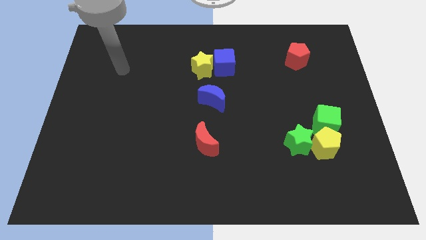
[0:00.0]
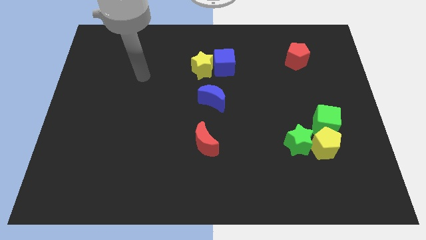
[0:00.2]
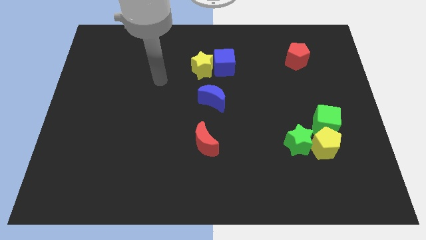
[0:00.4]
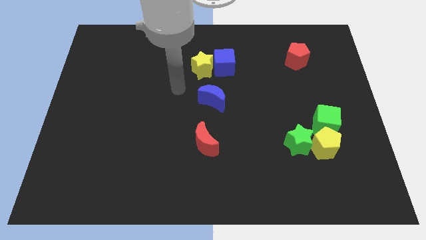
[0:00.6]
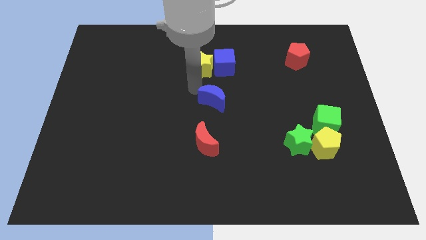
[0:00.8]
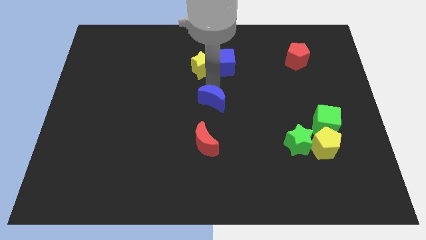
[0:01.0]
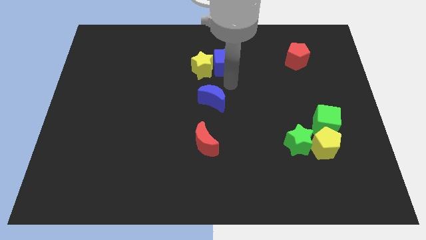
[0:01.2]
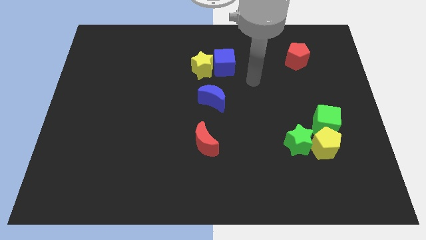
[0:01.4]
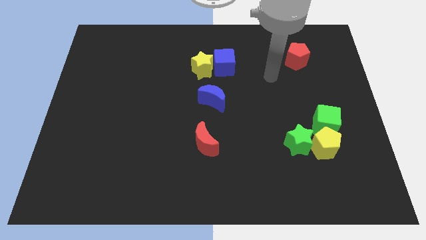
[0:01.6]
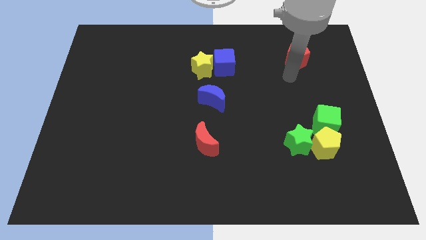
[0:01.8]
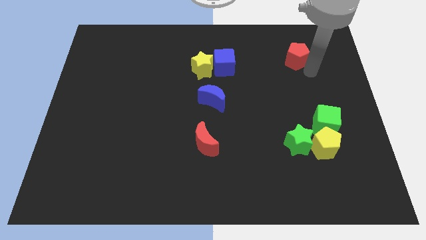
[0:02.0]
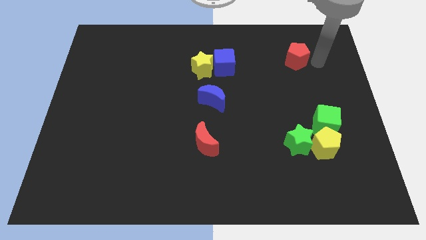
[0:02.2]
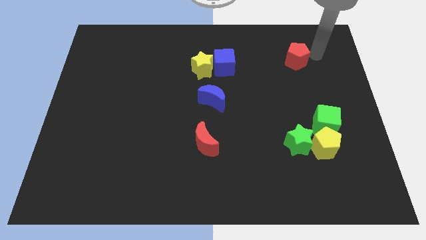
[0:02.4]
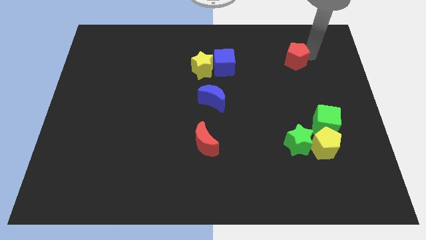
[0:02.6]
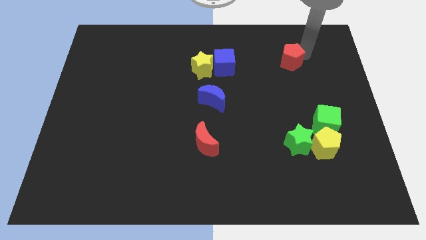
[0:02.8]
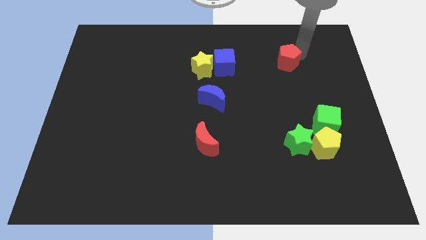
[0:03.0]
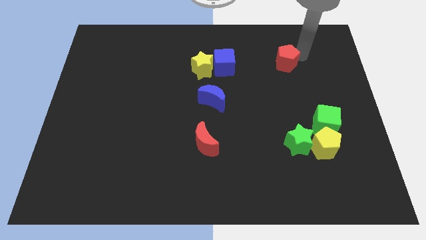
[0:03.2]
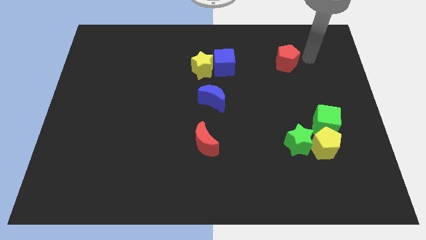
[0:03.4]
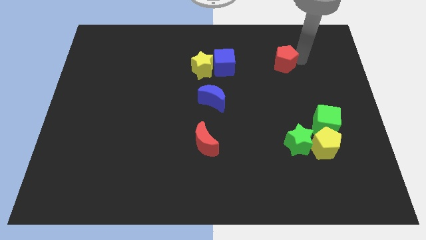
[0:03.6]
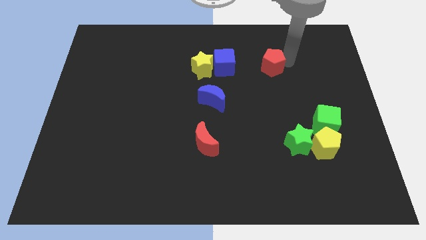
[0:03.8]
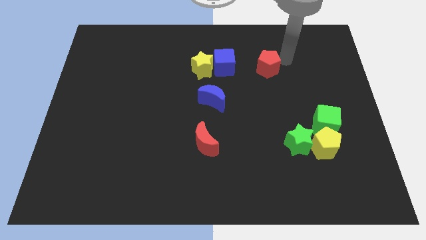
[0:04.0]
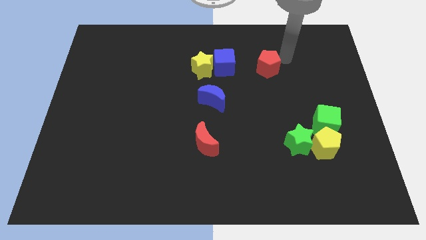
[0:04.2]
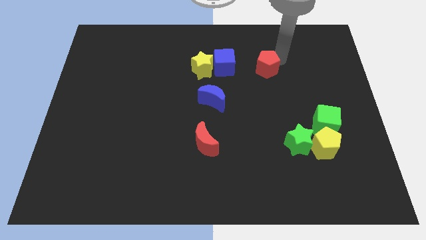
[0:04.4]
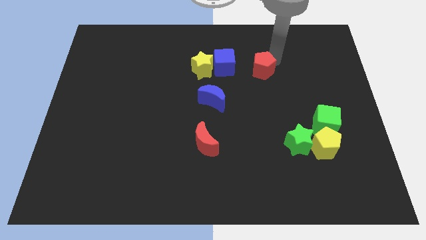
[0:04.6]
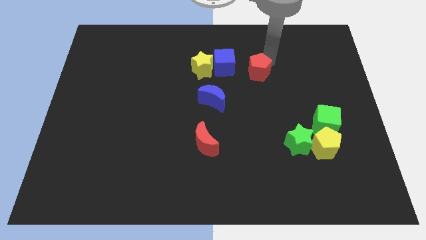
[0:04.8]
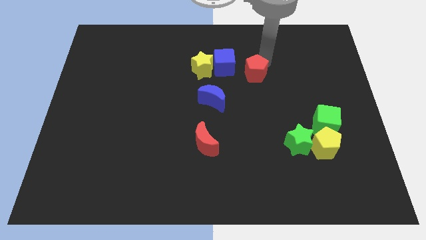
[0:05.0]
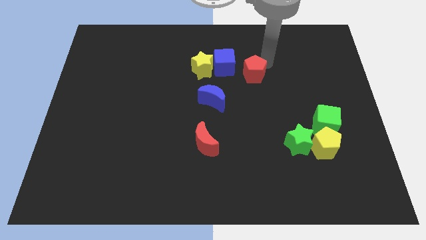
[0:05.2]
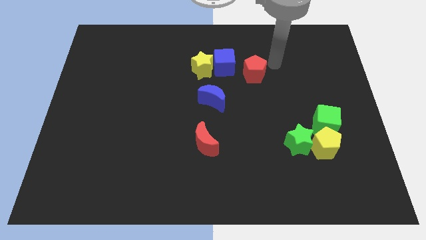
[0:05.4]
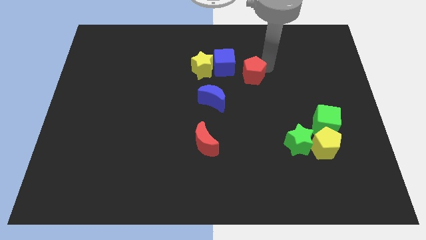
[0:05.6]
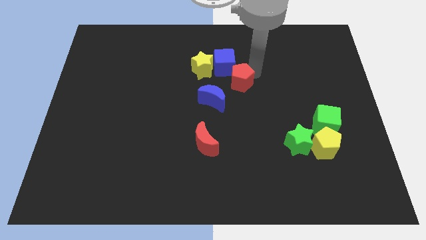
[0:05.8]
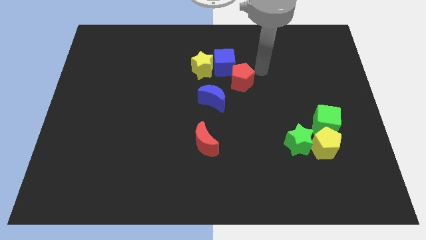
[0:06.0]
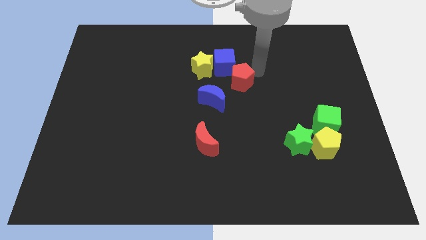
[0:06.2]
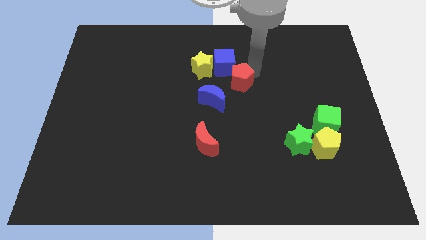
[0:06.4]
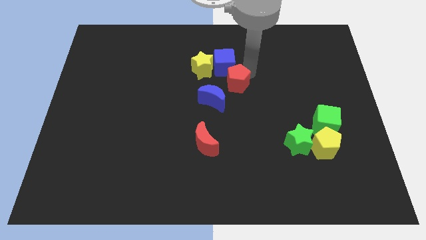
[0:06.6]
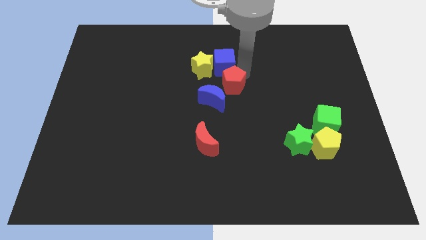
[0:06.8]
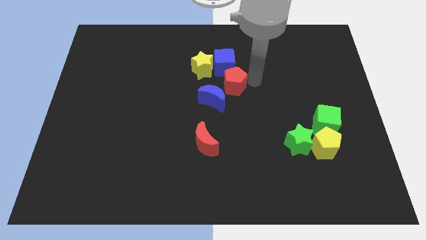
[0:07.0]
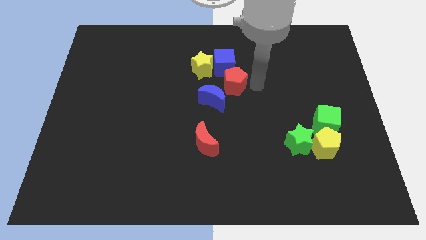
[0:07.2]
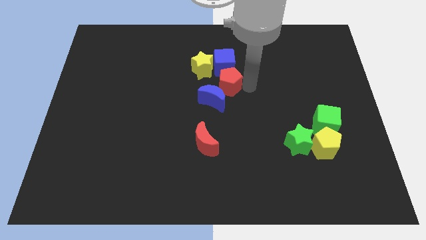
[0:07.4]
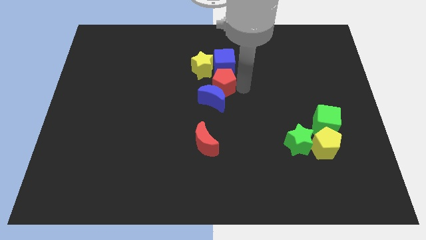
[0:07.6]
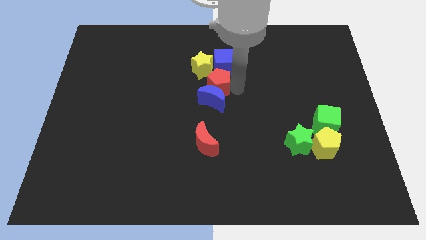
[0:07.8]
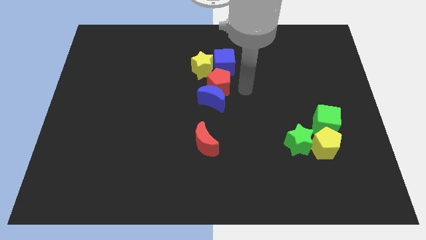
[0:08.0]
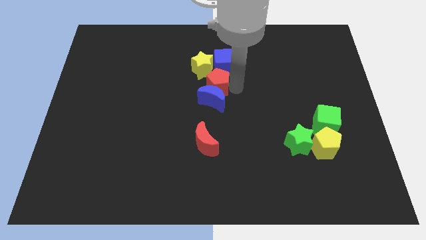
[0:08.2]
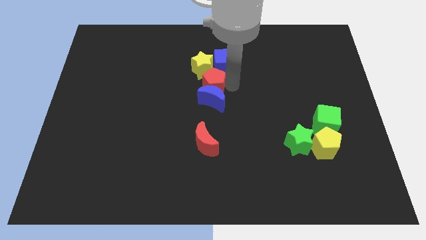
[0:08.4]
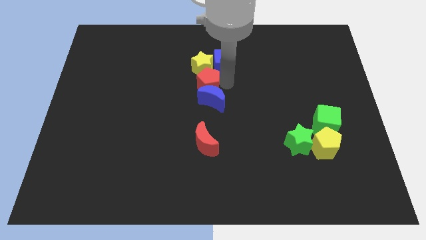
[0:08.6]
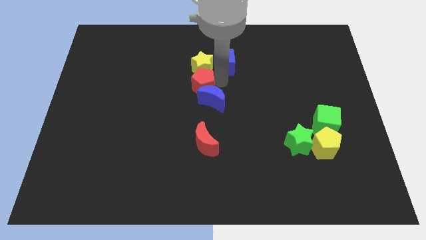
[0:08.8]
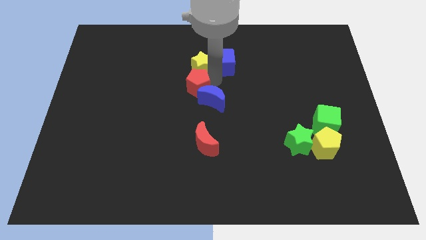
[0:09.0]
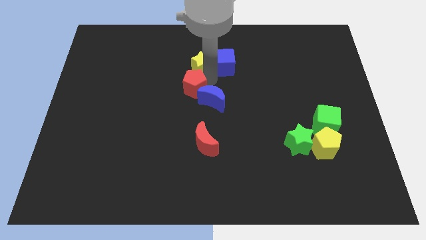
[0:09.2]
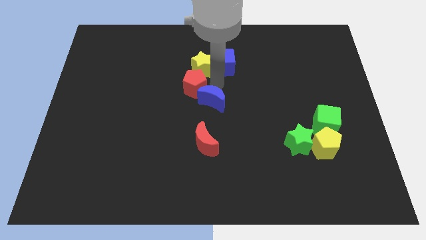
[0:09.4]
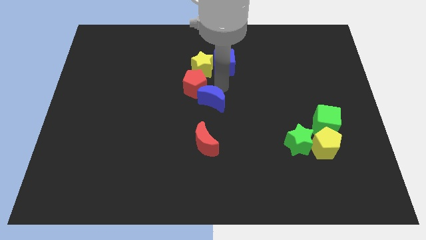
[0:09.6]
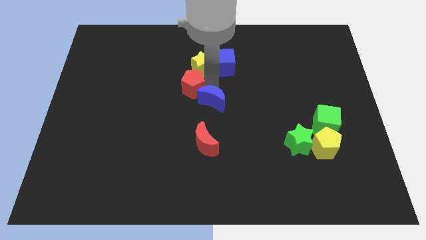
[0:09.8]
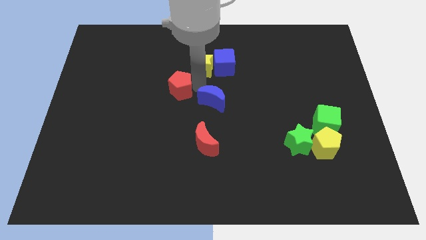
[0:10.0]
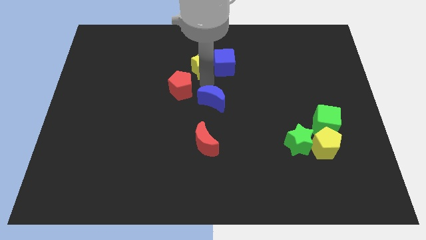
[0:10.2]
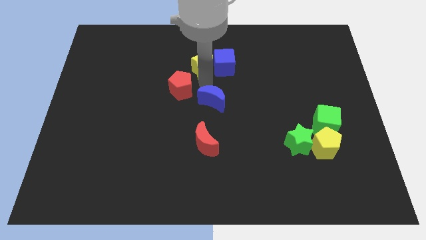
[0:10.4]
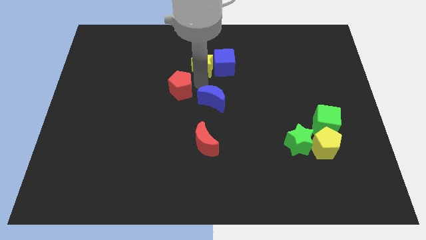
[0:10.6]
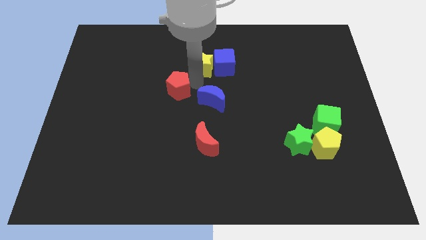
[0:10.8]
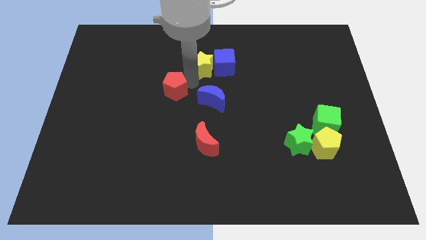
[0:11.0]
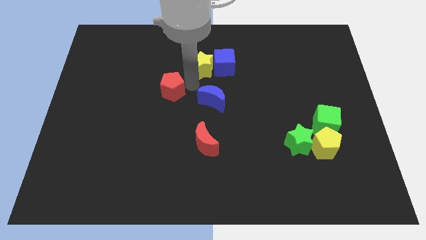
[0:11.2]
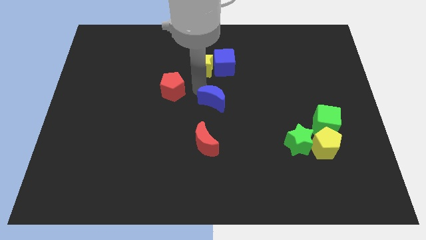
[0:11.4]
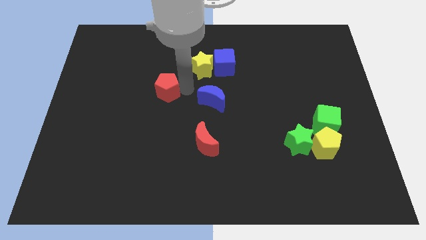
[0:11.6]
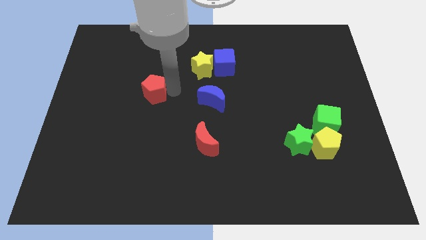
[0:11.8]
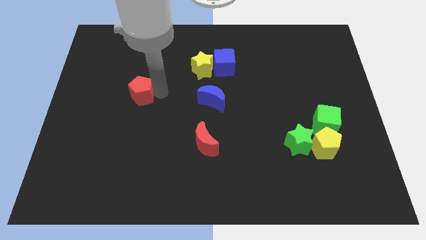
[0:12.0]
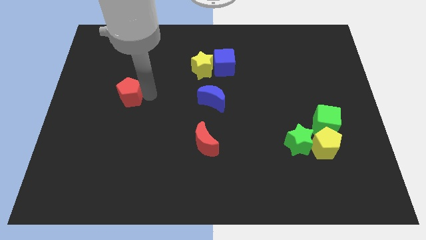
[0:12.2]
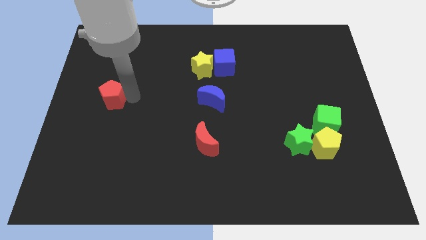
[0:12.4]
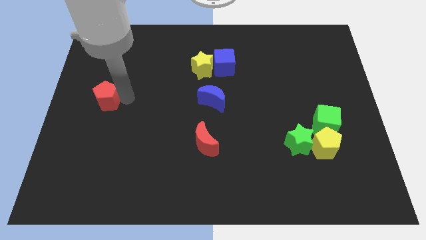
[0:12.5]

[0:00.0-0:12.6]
move the red pentagon to the left side

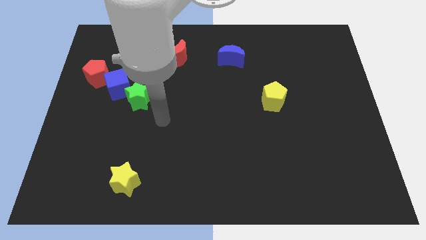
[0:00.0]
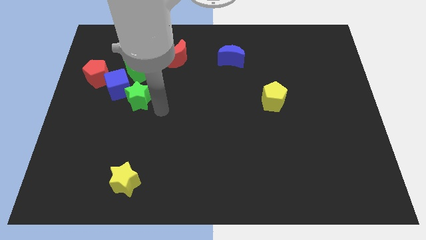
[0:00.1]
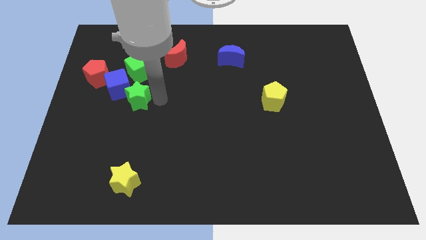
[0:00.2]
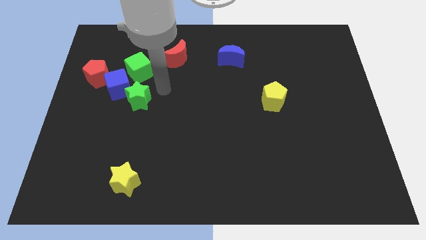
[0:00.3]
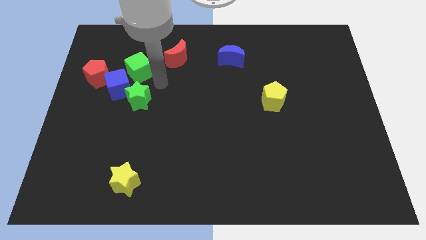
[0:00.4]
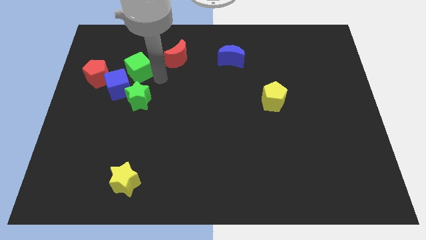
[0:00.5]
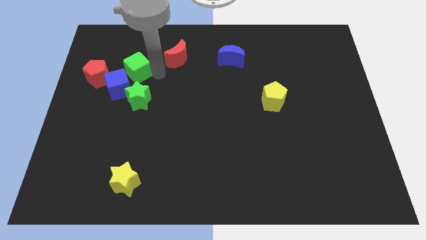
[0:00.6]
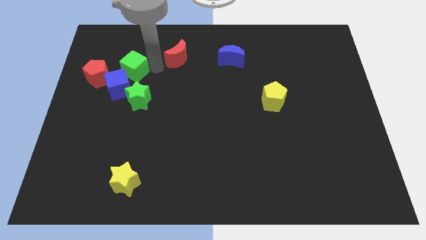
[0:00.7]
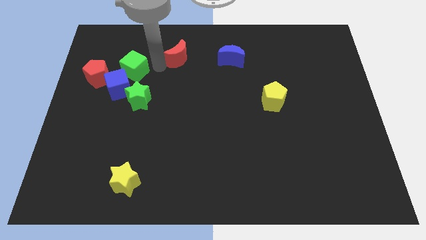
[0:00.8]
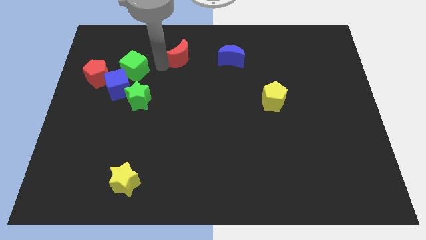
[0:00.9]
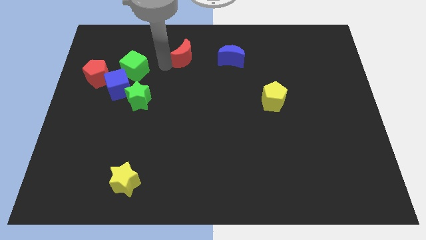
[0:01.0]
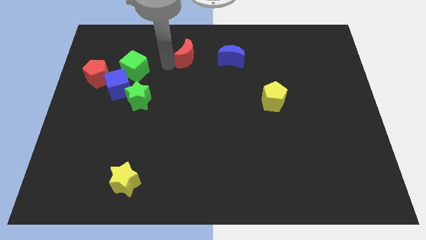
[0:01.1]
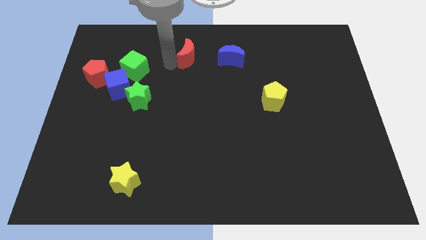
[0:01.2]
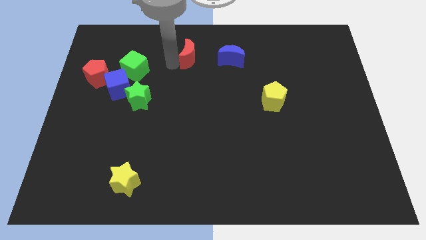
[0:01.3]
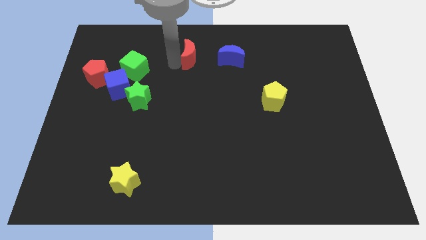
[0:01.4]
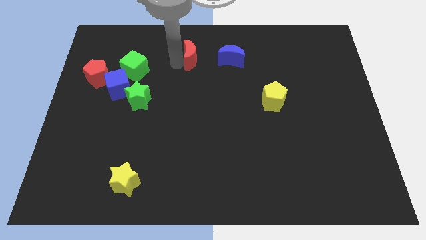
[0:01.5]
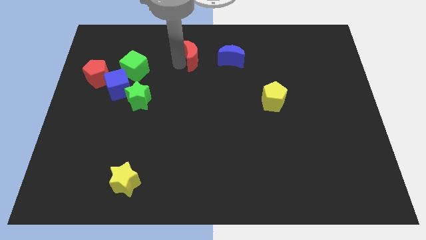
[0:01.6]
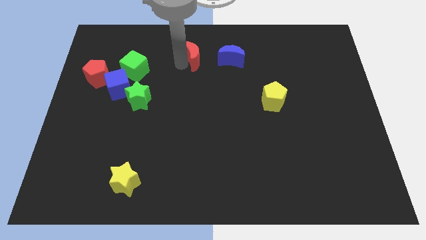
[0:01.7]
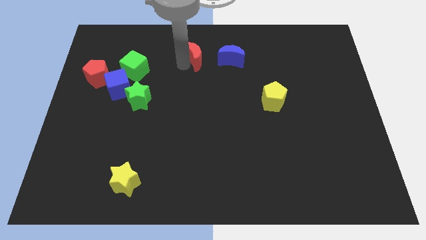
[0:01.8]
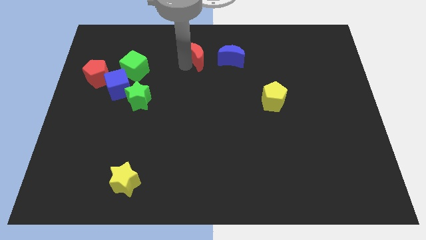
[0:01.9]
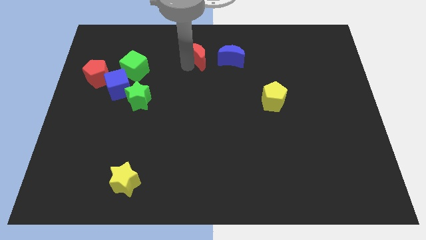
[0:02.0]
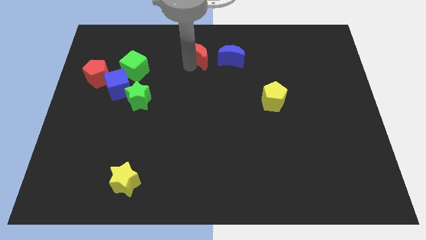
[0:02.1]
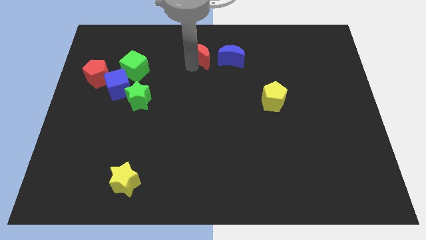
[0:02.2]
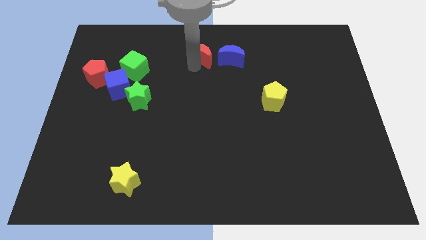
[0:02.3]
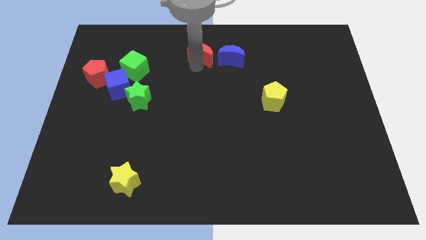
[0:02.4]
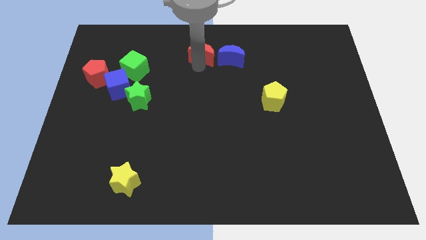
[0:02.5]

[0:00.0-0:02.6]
move the red moon to the top
